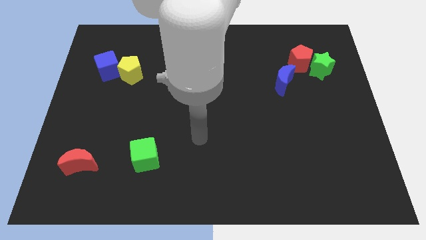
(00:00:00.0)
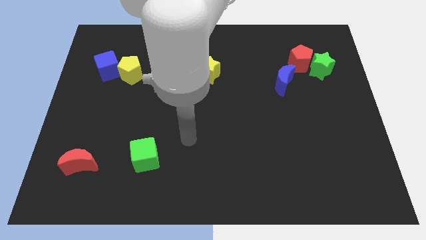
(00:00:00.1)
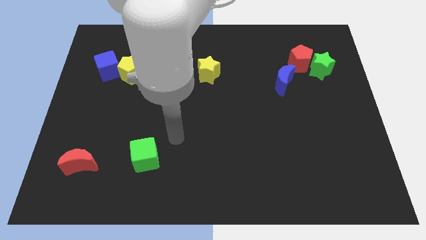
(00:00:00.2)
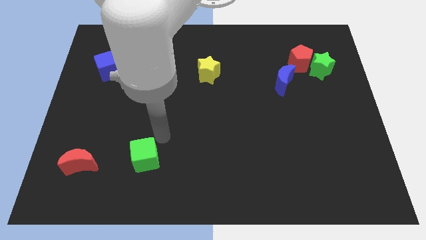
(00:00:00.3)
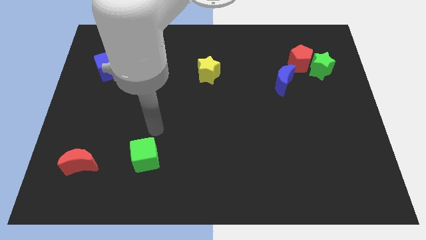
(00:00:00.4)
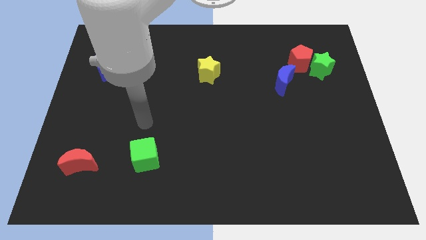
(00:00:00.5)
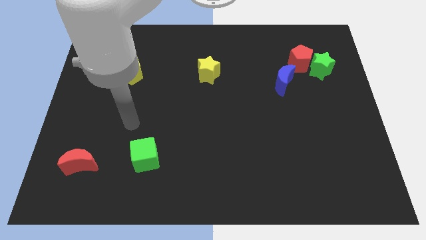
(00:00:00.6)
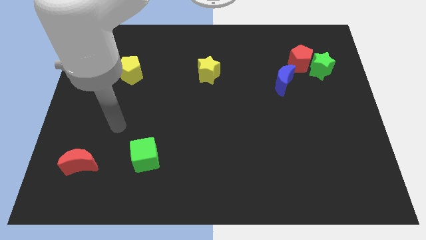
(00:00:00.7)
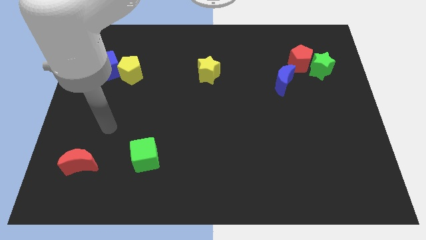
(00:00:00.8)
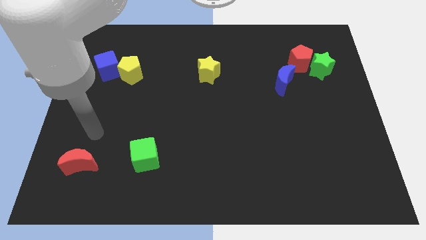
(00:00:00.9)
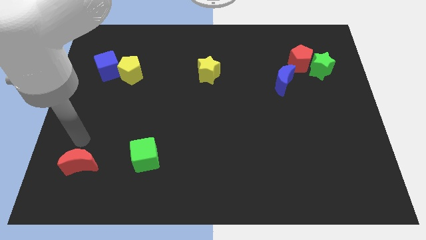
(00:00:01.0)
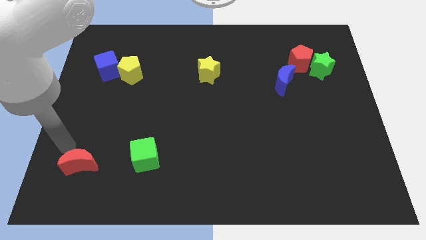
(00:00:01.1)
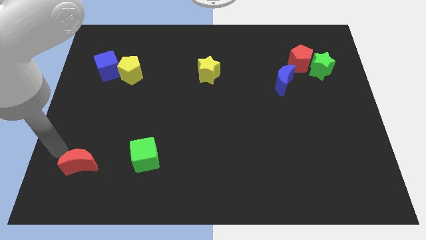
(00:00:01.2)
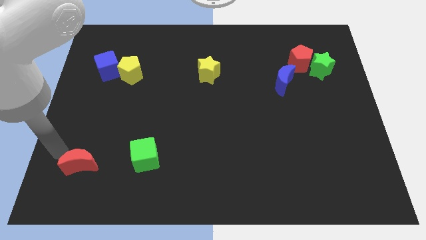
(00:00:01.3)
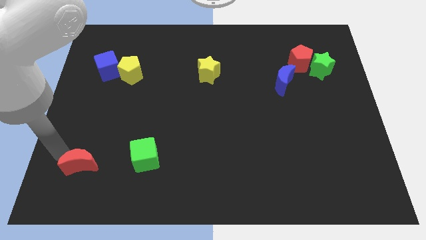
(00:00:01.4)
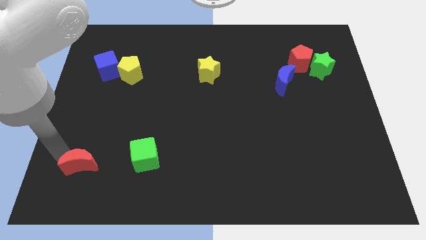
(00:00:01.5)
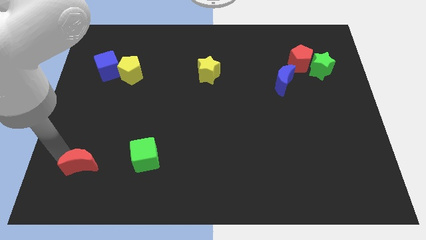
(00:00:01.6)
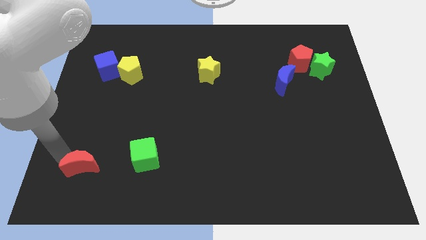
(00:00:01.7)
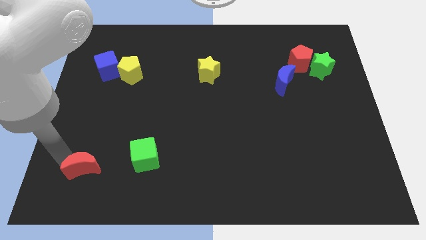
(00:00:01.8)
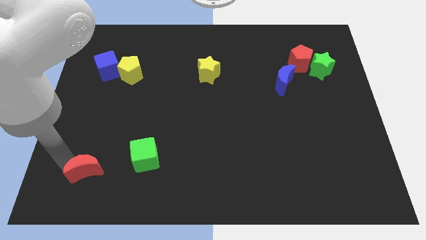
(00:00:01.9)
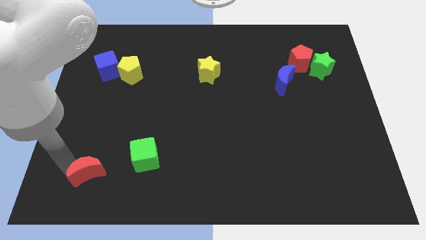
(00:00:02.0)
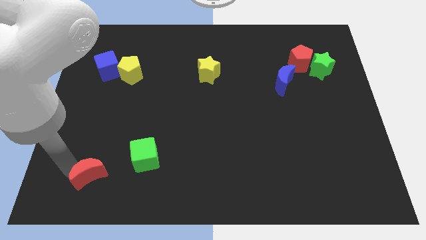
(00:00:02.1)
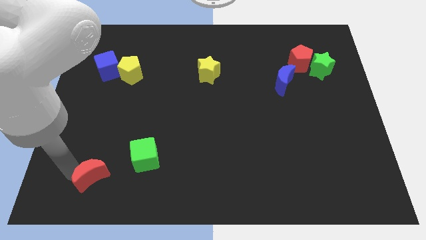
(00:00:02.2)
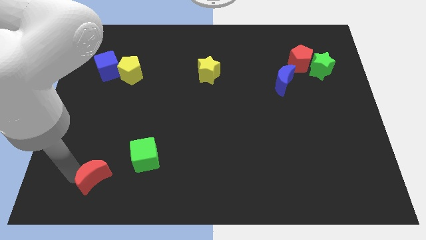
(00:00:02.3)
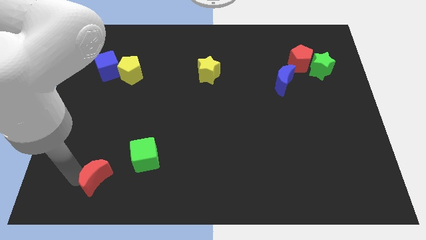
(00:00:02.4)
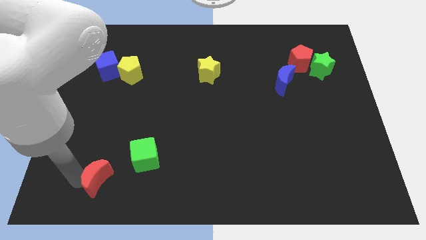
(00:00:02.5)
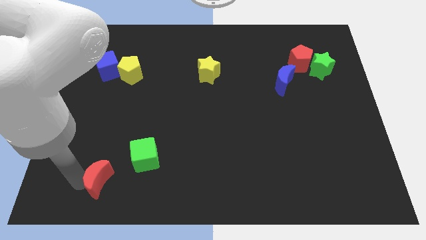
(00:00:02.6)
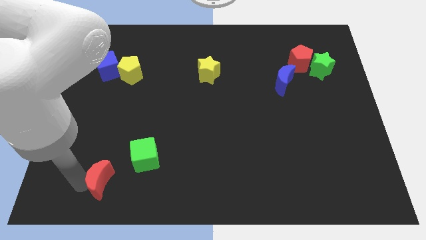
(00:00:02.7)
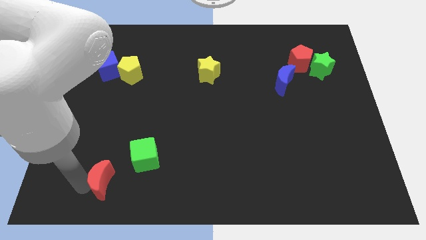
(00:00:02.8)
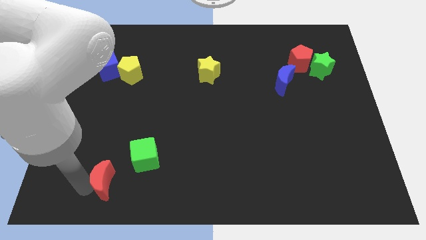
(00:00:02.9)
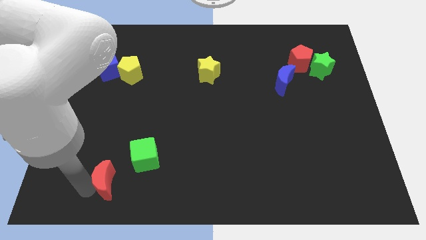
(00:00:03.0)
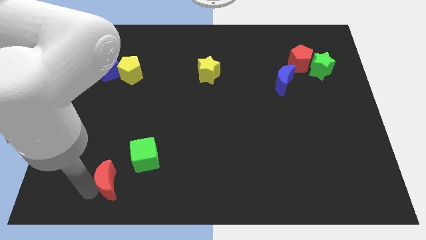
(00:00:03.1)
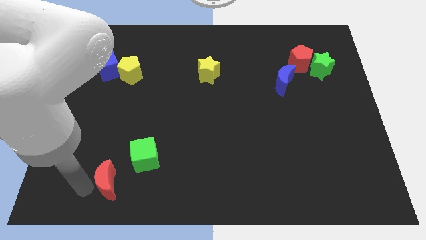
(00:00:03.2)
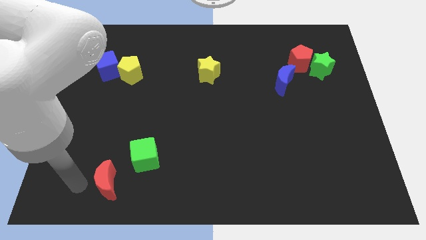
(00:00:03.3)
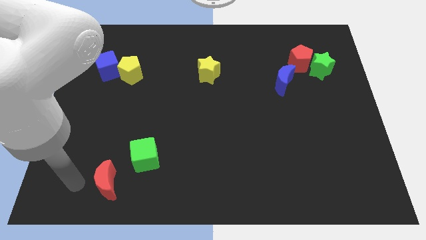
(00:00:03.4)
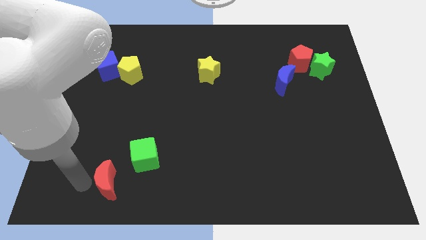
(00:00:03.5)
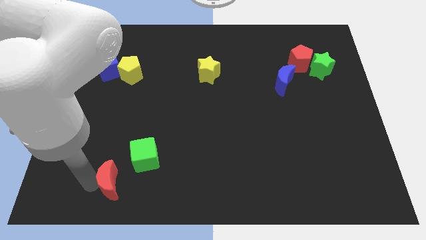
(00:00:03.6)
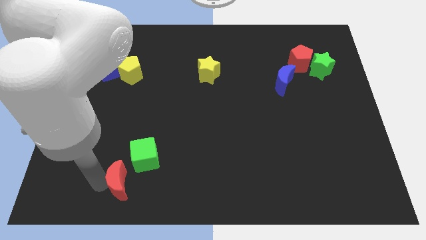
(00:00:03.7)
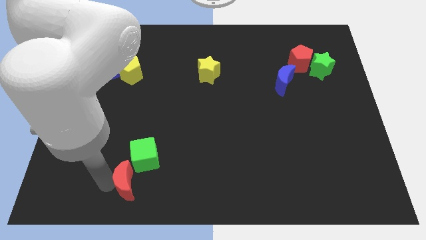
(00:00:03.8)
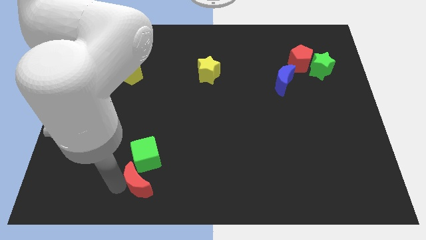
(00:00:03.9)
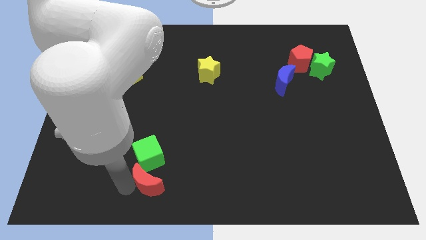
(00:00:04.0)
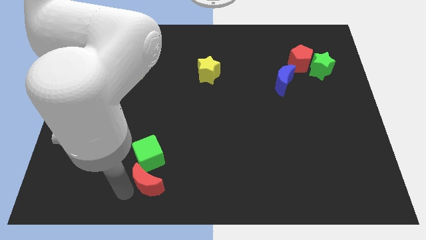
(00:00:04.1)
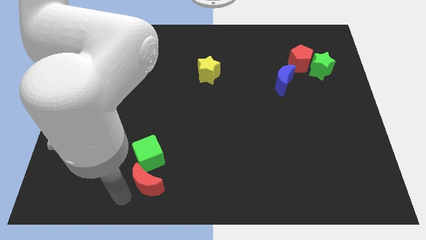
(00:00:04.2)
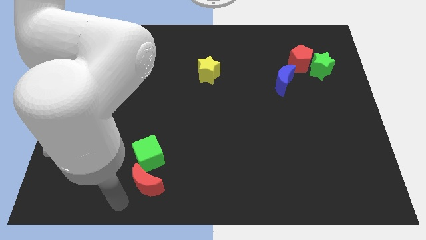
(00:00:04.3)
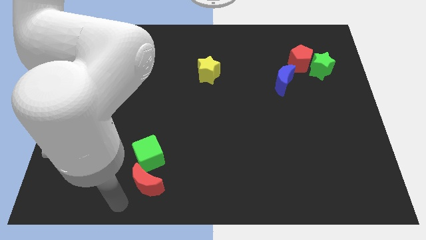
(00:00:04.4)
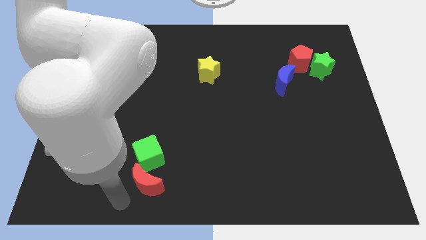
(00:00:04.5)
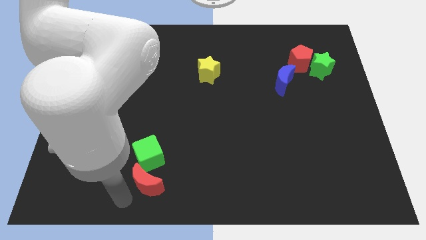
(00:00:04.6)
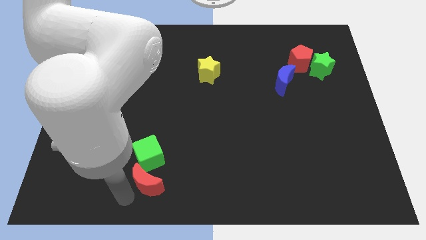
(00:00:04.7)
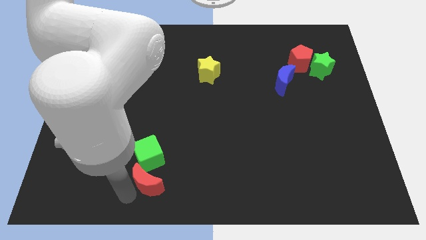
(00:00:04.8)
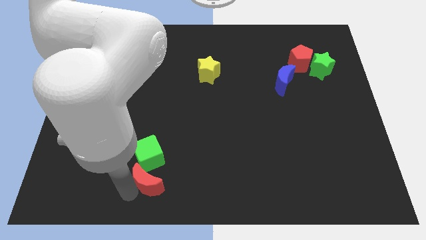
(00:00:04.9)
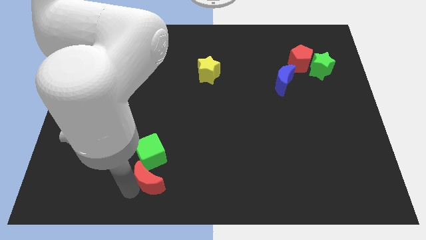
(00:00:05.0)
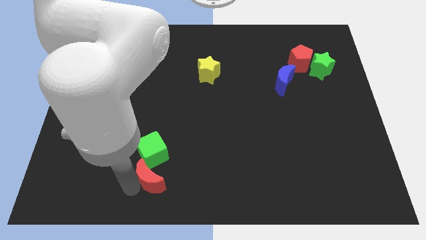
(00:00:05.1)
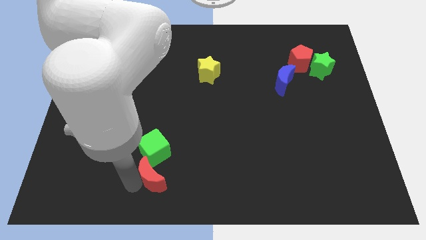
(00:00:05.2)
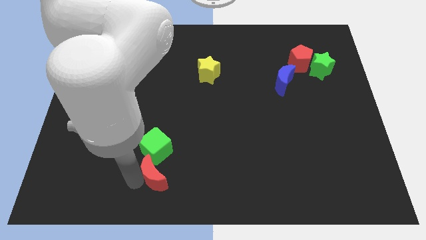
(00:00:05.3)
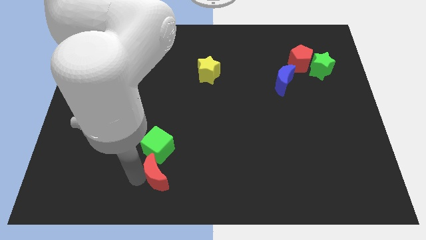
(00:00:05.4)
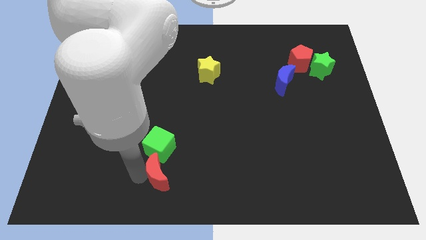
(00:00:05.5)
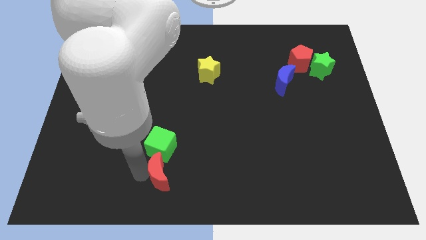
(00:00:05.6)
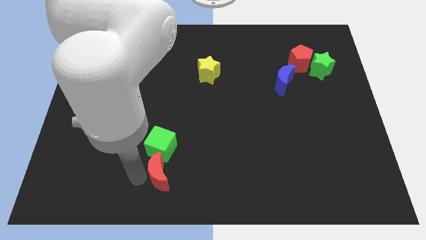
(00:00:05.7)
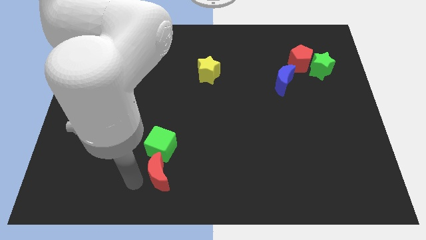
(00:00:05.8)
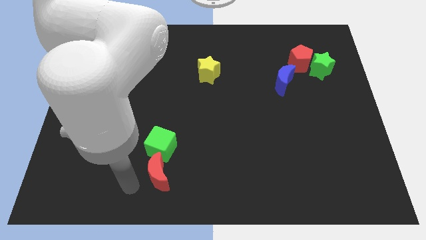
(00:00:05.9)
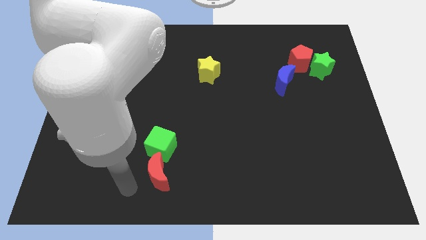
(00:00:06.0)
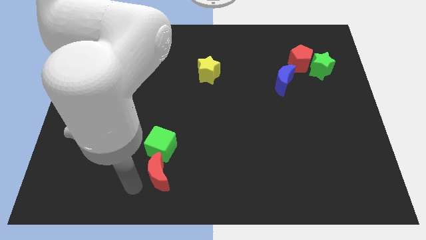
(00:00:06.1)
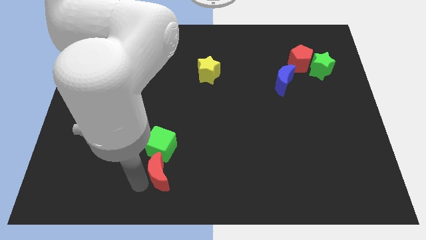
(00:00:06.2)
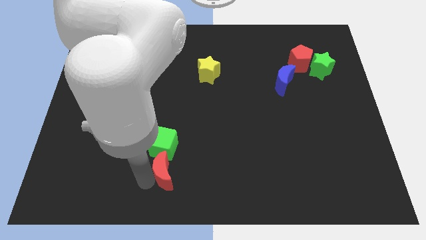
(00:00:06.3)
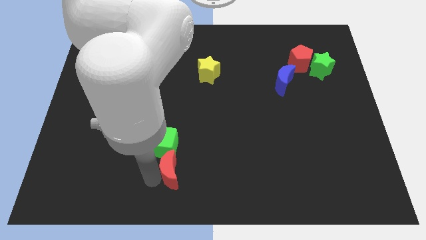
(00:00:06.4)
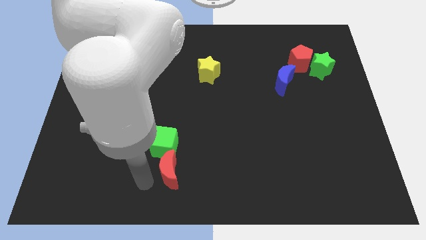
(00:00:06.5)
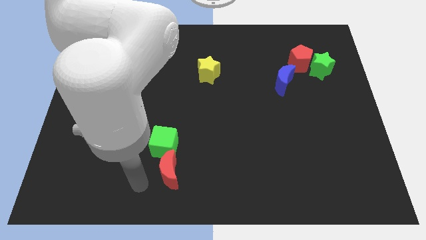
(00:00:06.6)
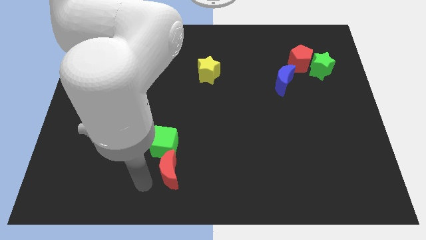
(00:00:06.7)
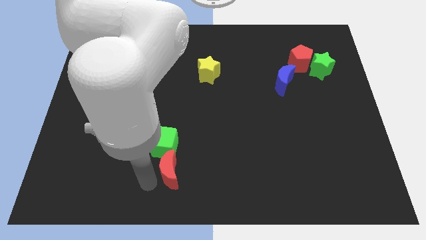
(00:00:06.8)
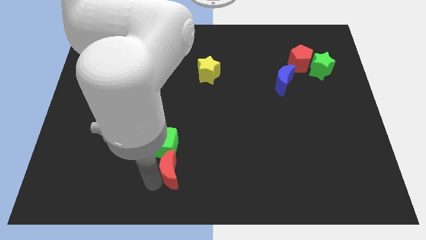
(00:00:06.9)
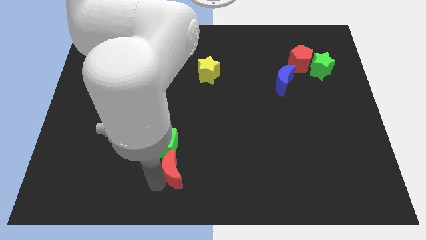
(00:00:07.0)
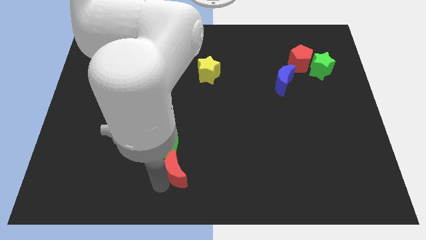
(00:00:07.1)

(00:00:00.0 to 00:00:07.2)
push the red moon right

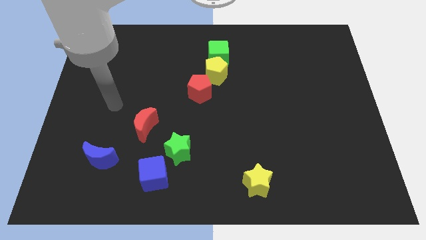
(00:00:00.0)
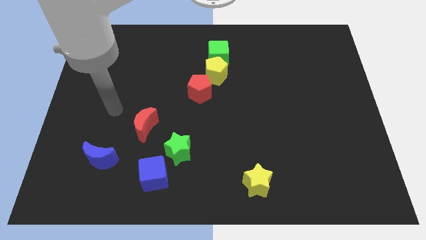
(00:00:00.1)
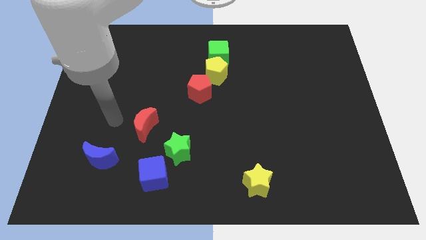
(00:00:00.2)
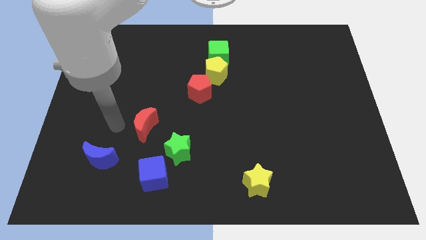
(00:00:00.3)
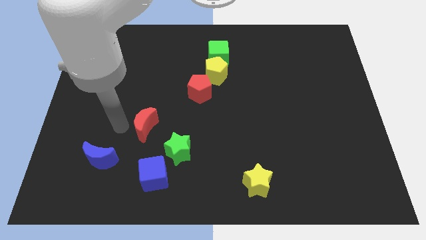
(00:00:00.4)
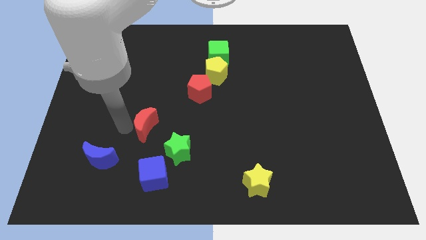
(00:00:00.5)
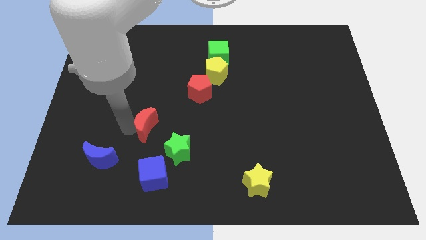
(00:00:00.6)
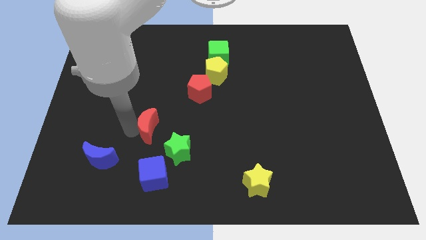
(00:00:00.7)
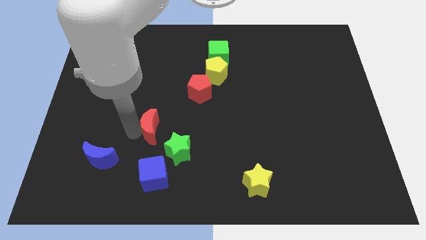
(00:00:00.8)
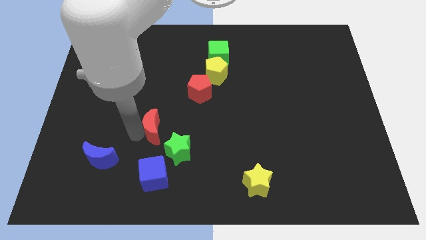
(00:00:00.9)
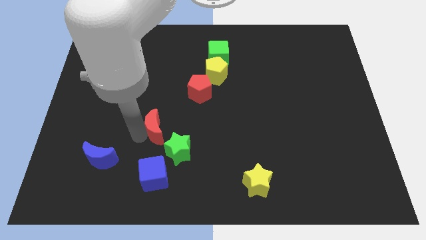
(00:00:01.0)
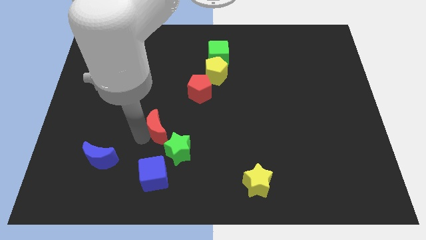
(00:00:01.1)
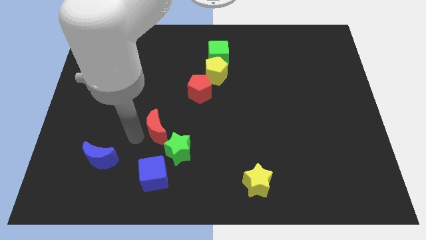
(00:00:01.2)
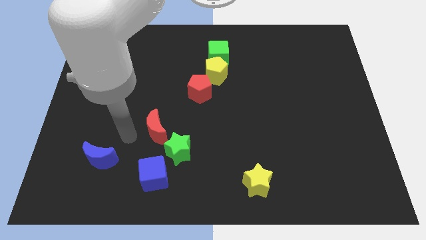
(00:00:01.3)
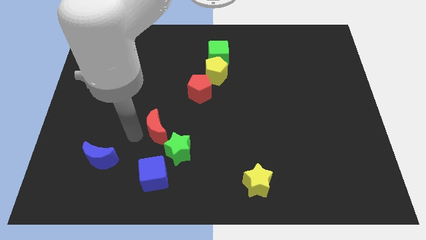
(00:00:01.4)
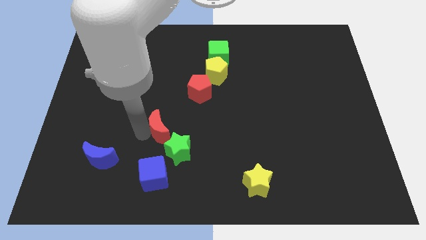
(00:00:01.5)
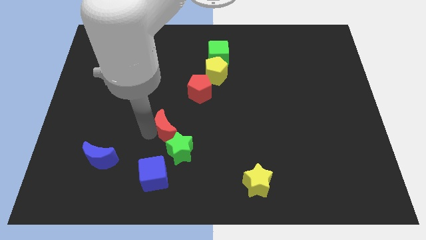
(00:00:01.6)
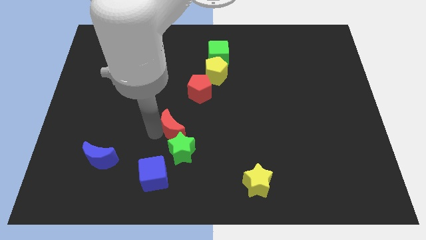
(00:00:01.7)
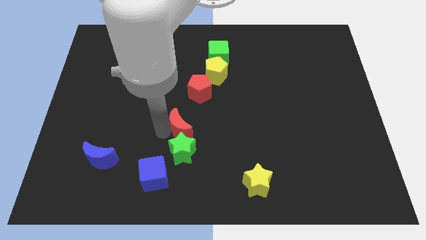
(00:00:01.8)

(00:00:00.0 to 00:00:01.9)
slightly slide the red moon right
